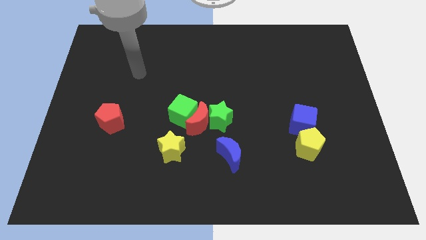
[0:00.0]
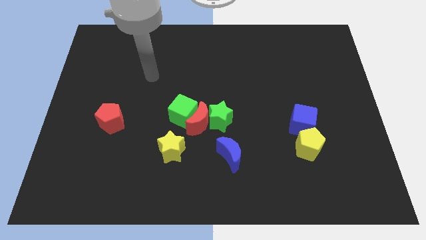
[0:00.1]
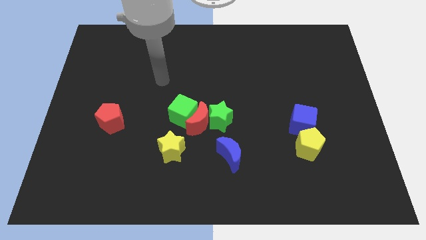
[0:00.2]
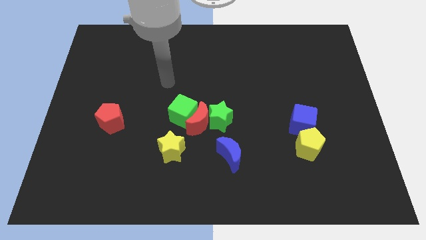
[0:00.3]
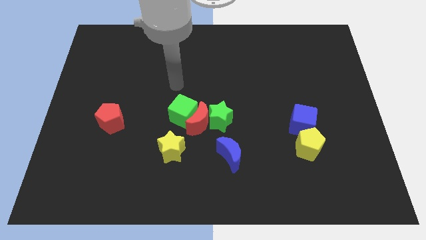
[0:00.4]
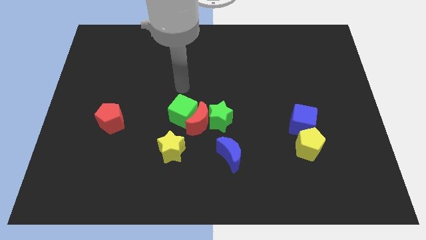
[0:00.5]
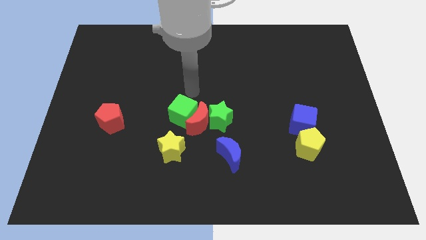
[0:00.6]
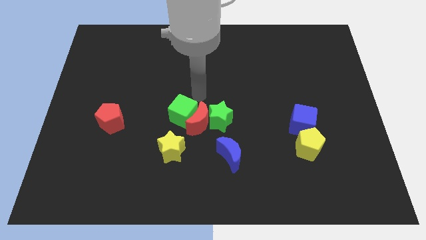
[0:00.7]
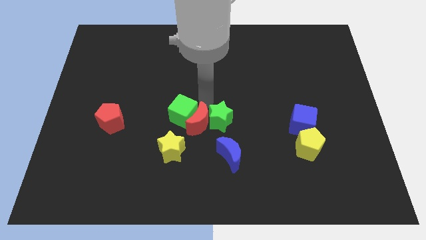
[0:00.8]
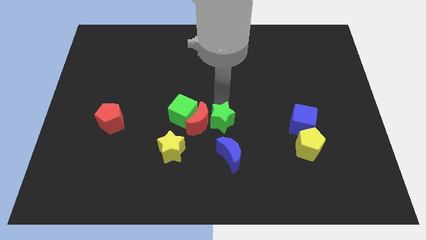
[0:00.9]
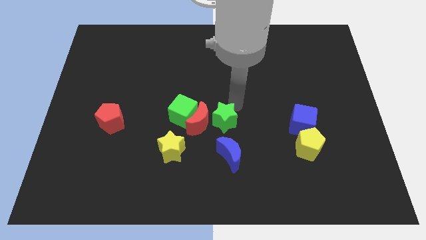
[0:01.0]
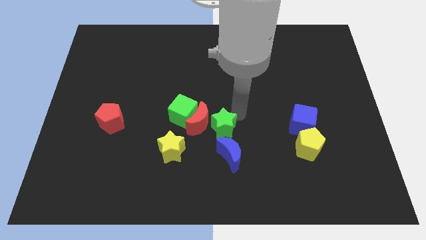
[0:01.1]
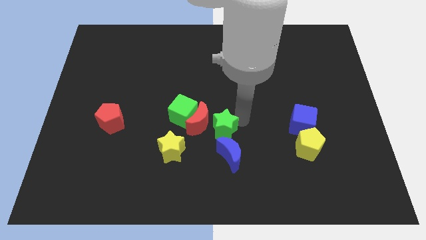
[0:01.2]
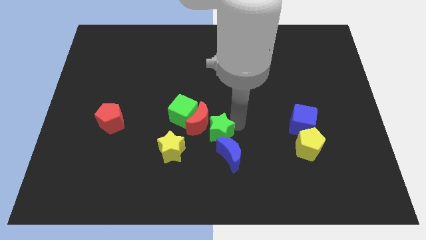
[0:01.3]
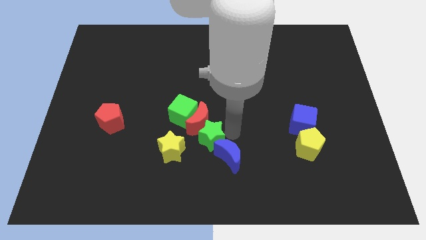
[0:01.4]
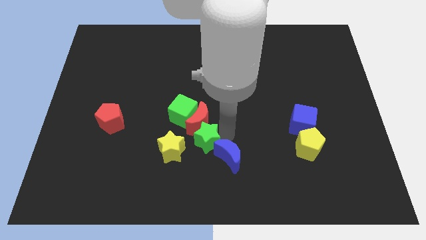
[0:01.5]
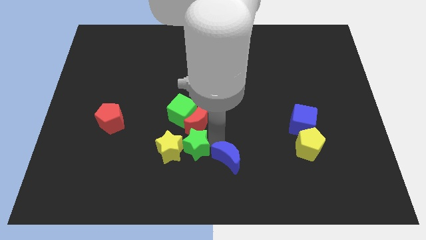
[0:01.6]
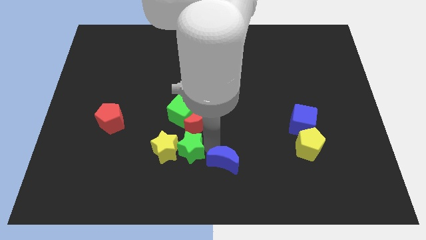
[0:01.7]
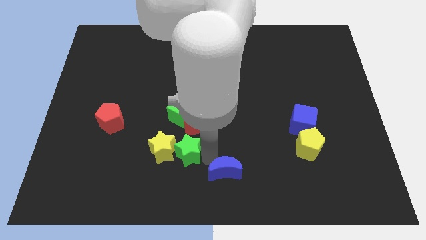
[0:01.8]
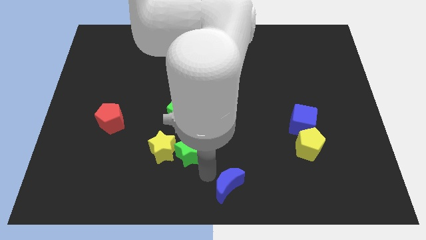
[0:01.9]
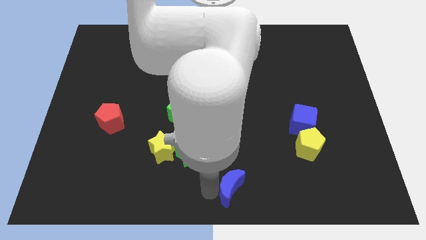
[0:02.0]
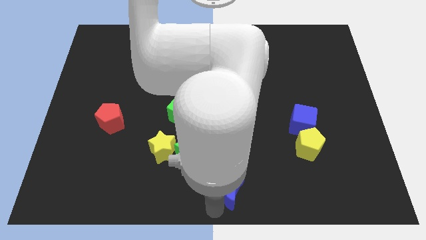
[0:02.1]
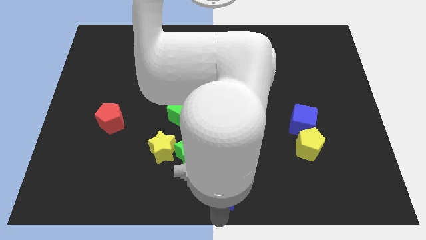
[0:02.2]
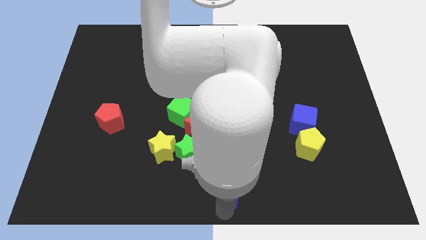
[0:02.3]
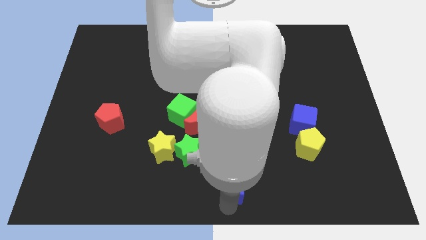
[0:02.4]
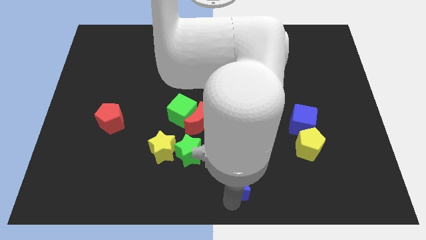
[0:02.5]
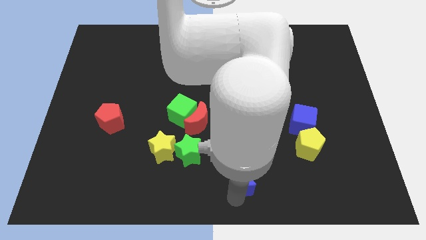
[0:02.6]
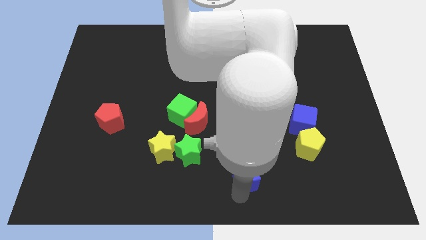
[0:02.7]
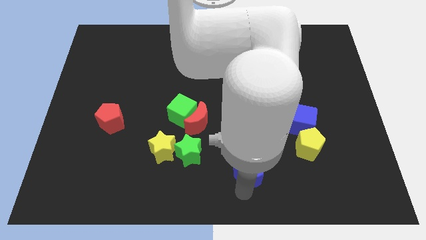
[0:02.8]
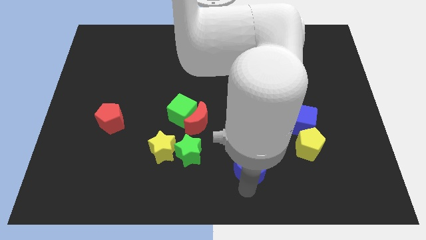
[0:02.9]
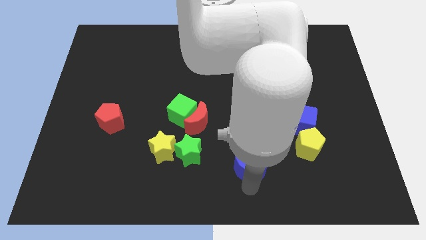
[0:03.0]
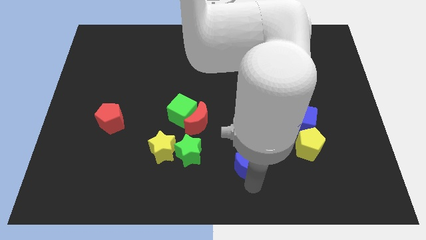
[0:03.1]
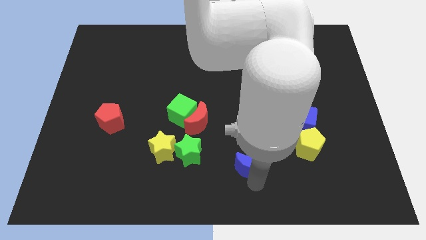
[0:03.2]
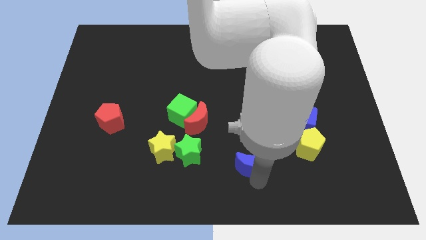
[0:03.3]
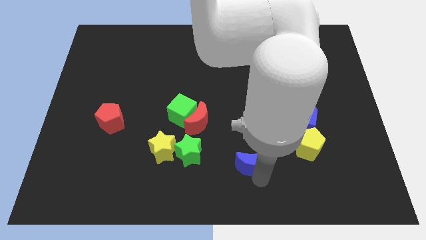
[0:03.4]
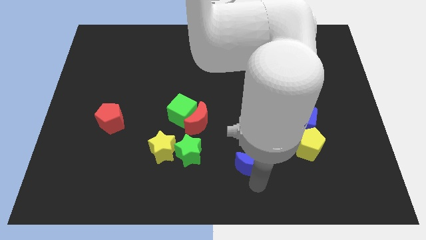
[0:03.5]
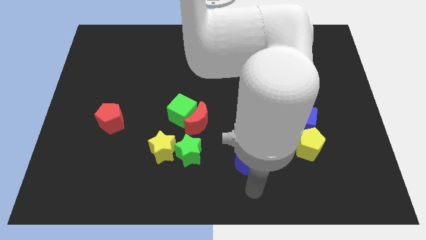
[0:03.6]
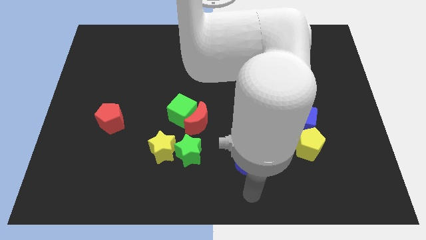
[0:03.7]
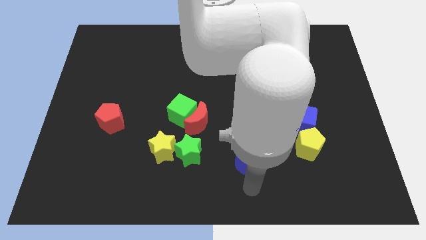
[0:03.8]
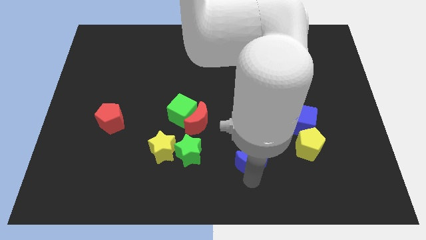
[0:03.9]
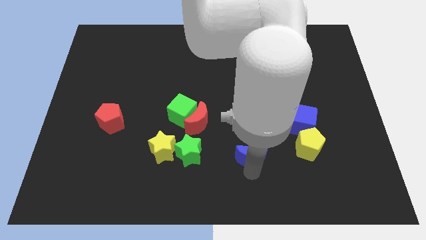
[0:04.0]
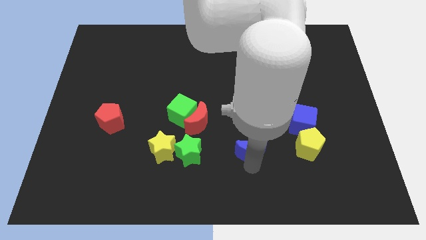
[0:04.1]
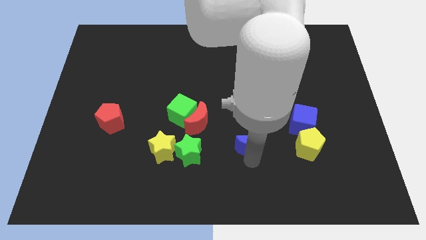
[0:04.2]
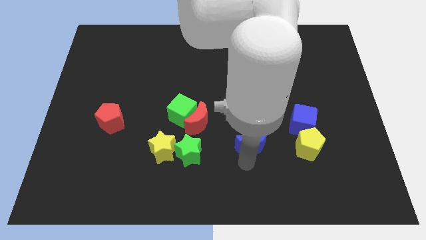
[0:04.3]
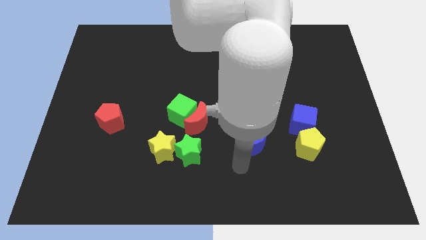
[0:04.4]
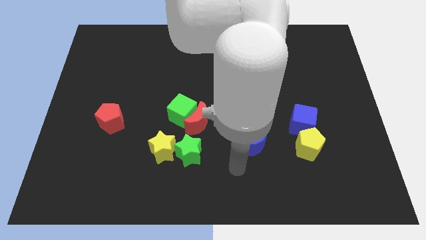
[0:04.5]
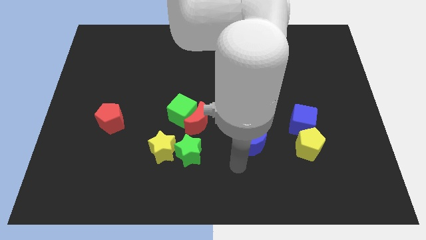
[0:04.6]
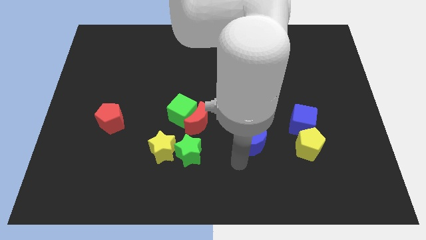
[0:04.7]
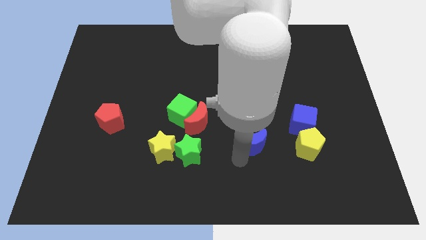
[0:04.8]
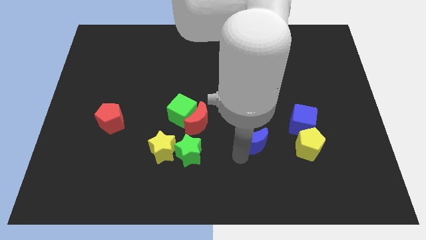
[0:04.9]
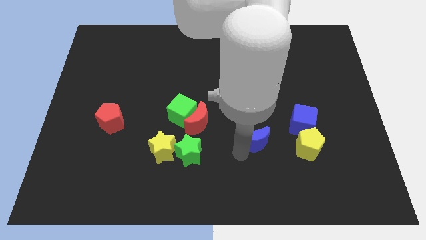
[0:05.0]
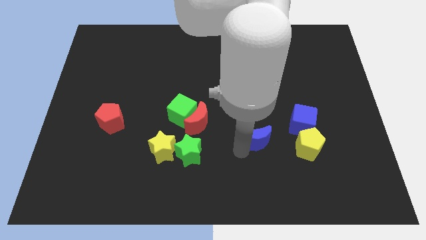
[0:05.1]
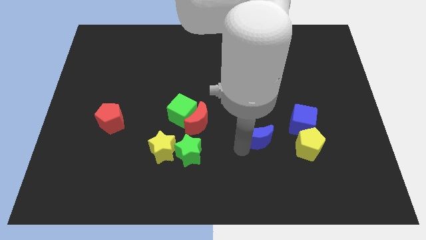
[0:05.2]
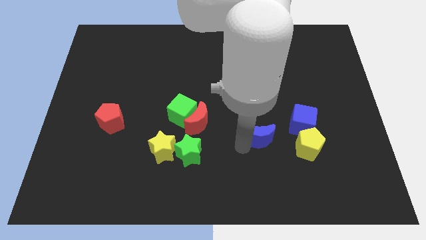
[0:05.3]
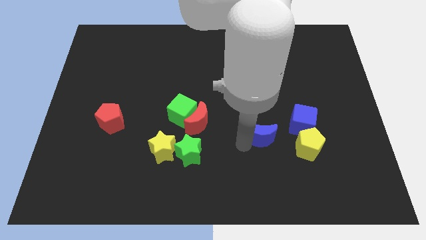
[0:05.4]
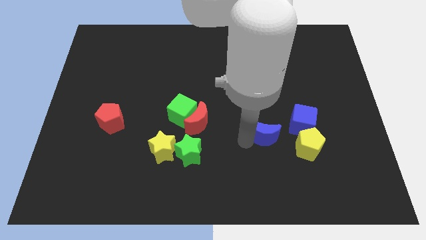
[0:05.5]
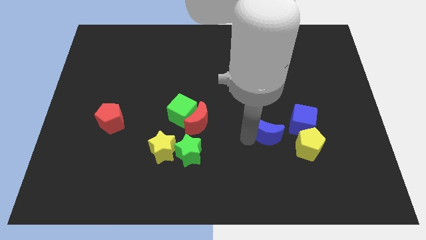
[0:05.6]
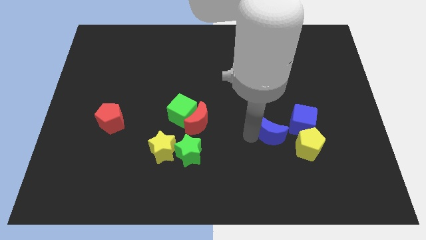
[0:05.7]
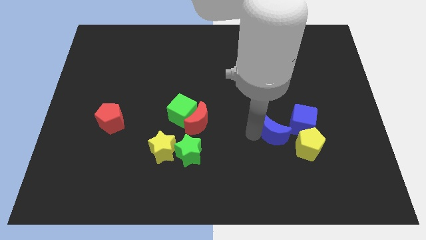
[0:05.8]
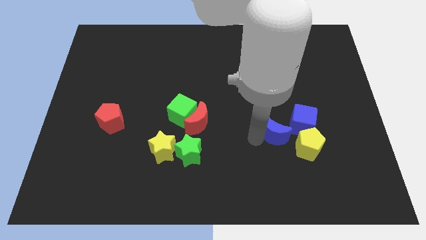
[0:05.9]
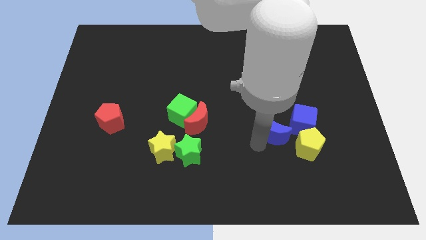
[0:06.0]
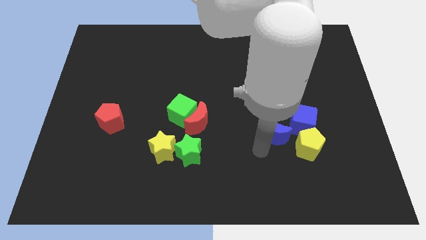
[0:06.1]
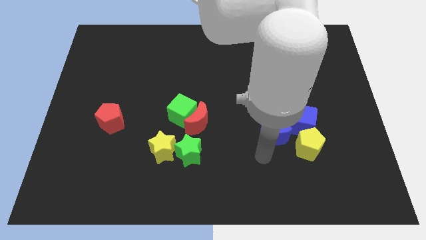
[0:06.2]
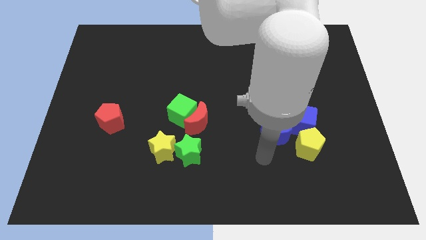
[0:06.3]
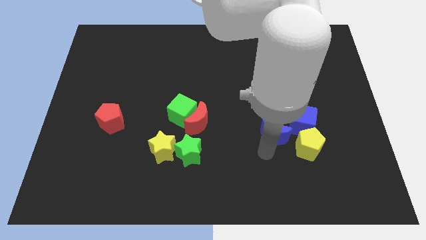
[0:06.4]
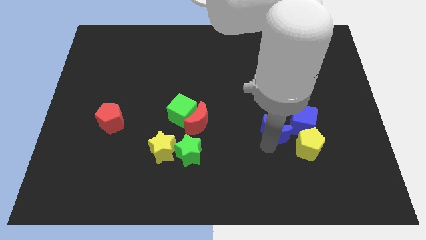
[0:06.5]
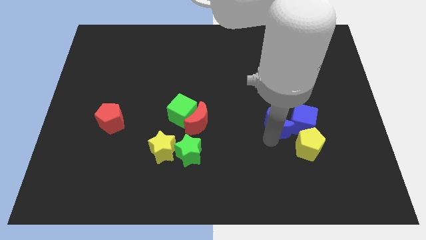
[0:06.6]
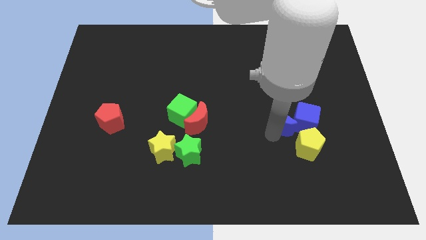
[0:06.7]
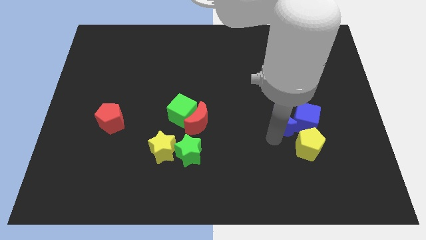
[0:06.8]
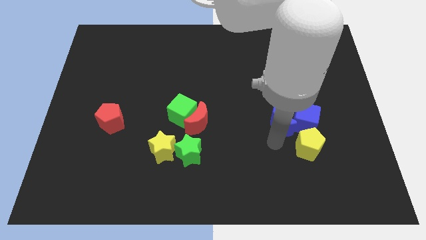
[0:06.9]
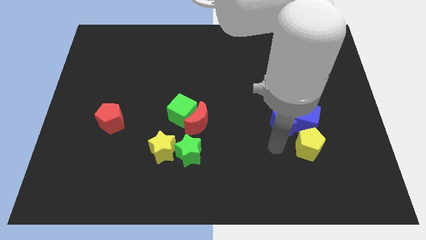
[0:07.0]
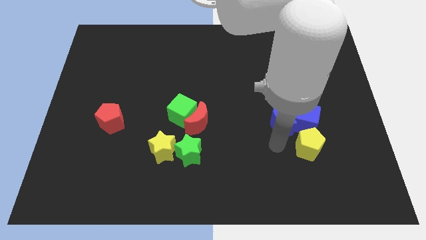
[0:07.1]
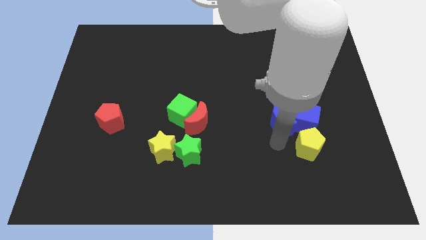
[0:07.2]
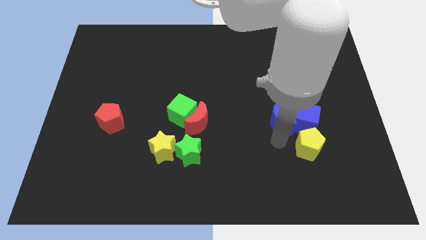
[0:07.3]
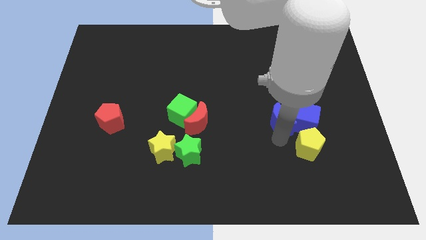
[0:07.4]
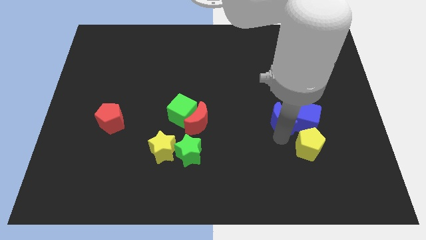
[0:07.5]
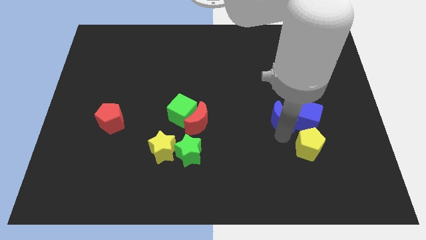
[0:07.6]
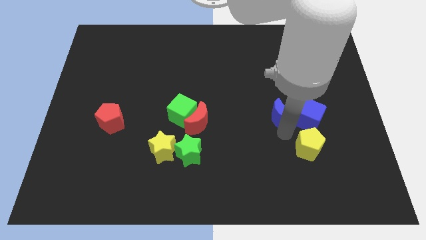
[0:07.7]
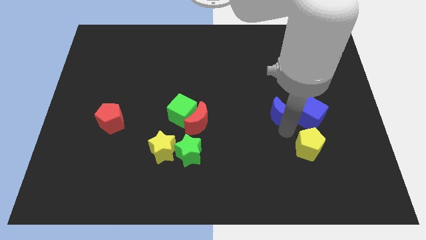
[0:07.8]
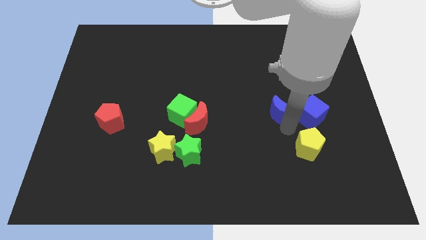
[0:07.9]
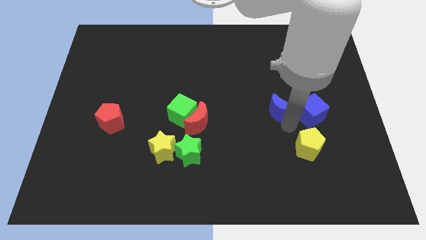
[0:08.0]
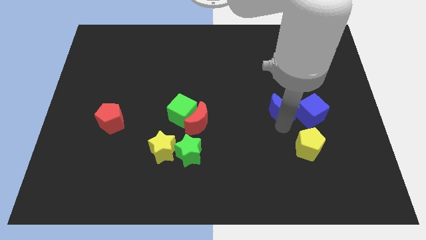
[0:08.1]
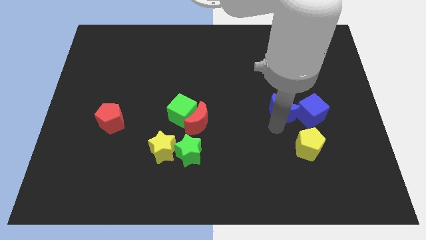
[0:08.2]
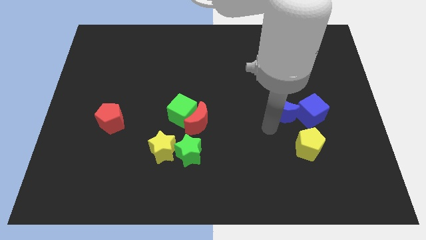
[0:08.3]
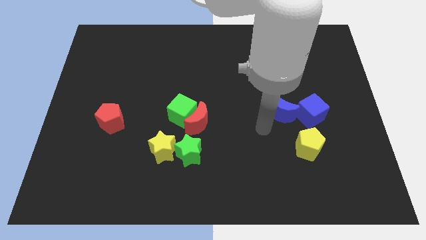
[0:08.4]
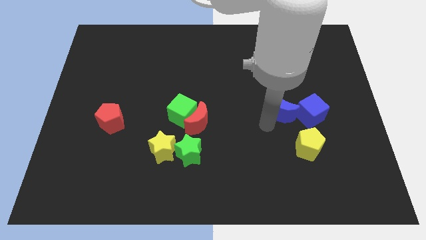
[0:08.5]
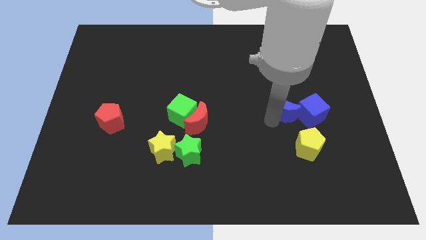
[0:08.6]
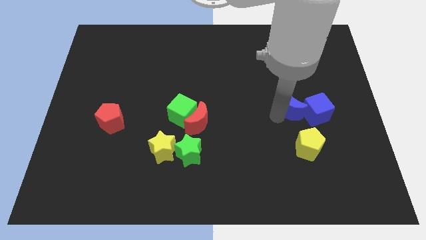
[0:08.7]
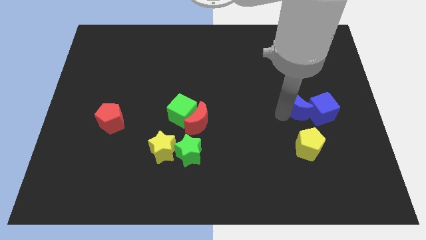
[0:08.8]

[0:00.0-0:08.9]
move the blue moon up and then to the right
